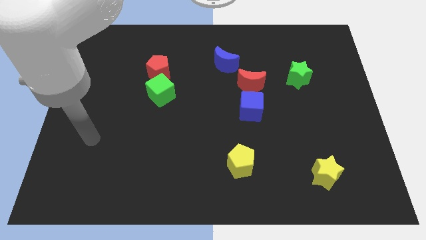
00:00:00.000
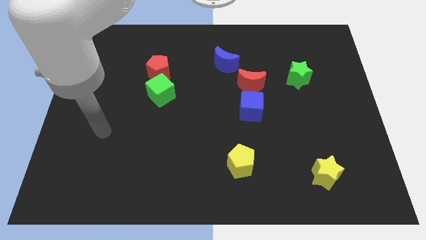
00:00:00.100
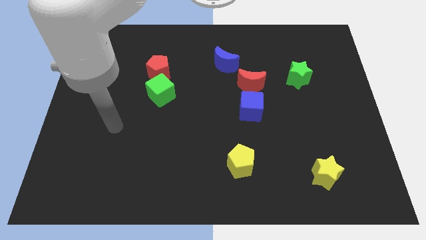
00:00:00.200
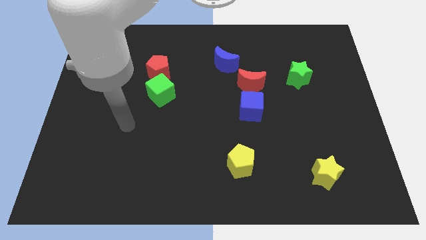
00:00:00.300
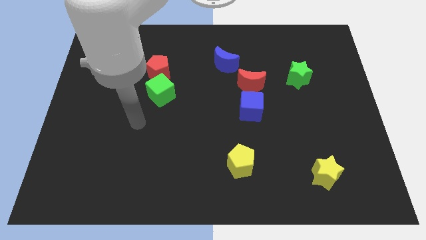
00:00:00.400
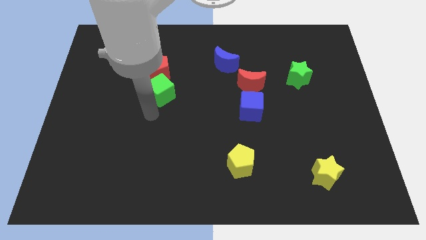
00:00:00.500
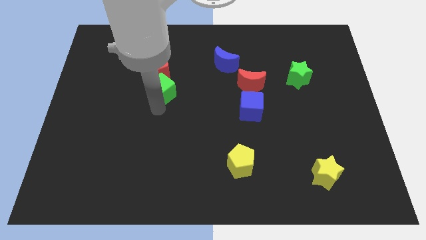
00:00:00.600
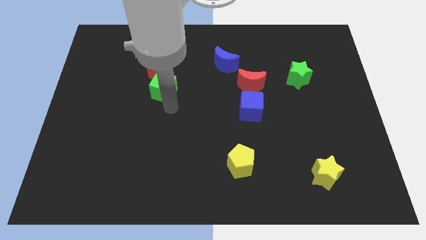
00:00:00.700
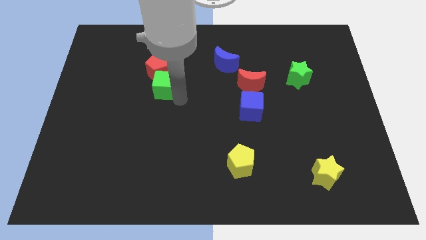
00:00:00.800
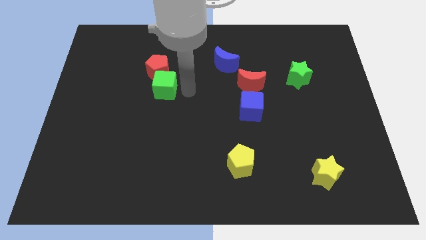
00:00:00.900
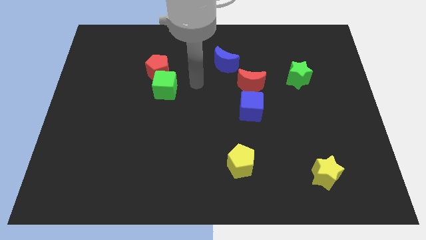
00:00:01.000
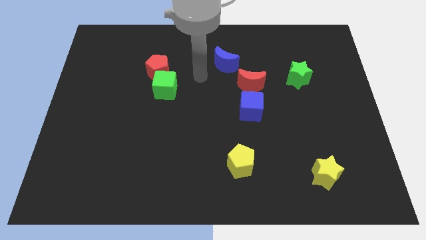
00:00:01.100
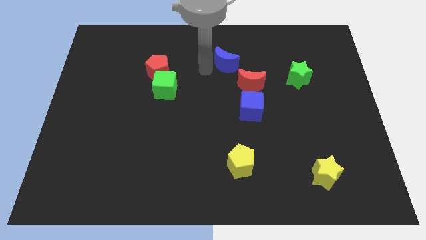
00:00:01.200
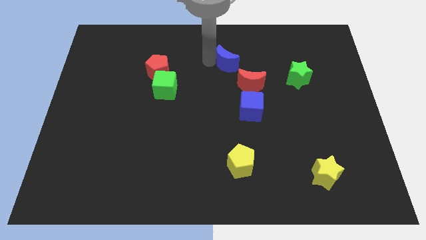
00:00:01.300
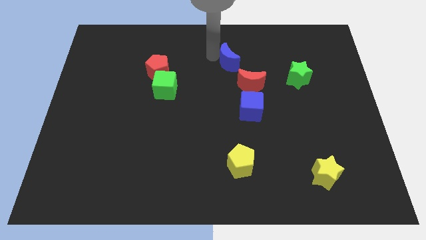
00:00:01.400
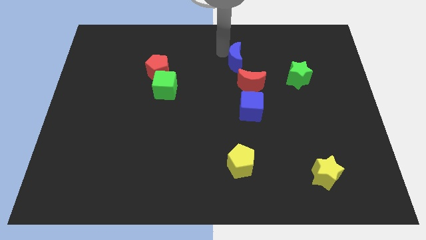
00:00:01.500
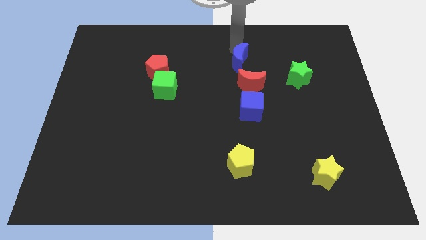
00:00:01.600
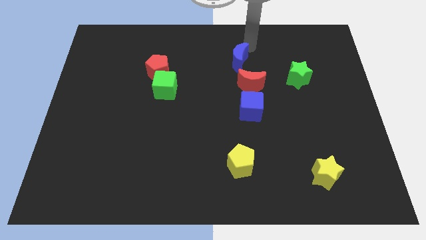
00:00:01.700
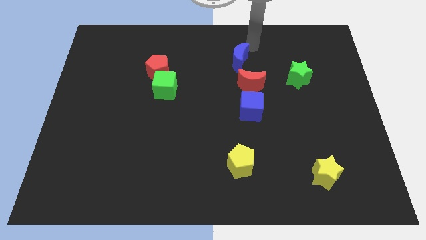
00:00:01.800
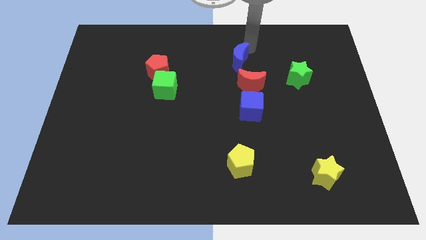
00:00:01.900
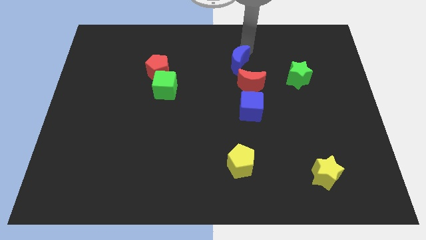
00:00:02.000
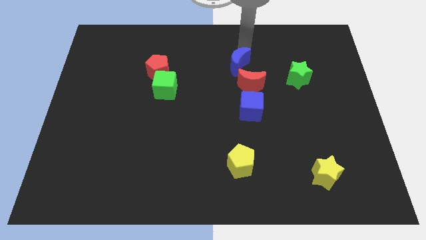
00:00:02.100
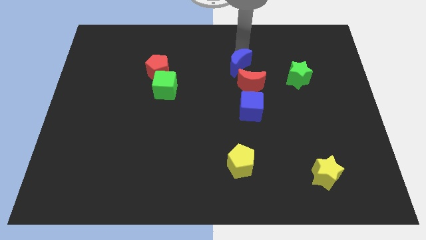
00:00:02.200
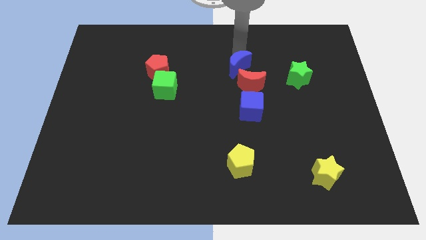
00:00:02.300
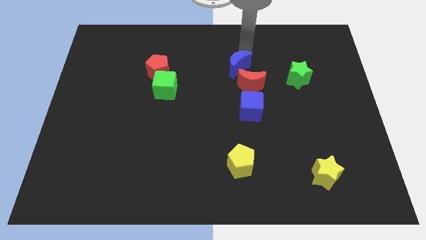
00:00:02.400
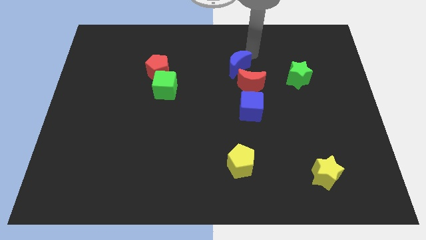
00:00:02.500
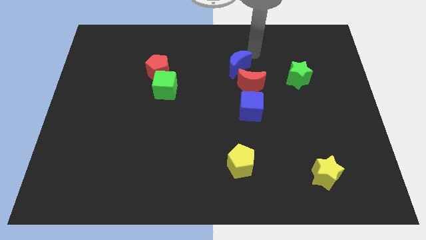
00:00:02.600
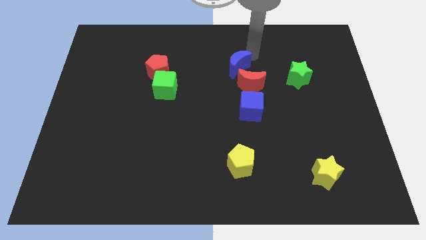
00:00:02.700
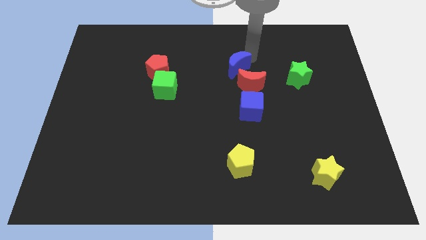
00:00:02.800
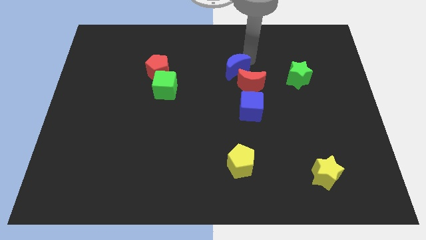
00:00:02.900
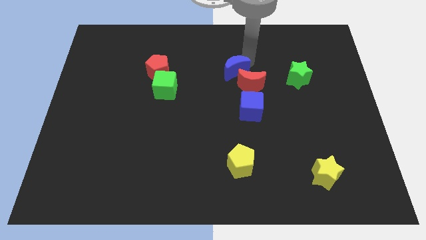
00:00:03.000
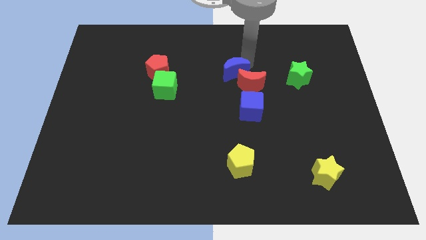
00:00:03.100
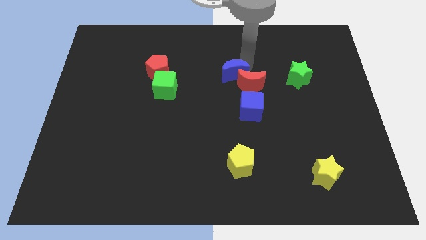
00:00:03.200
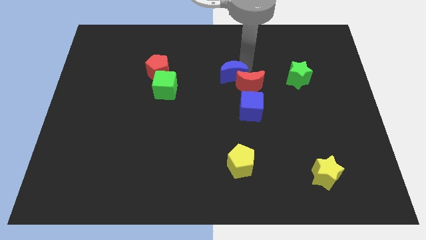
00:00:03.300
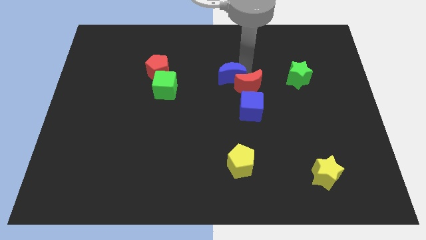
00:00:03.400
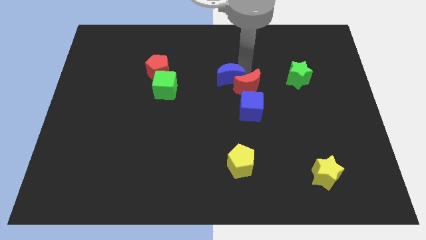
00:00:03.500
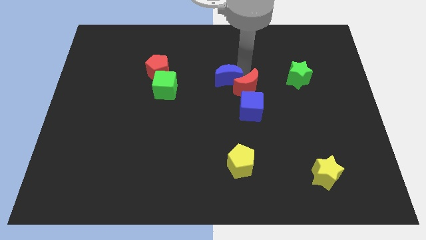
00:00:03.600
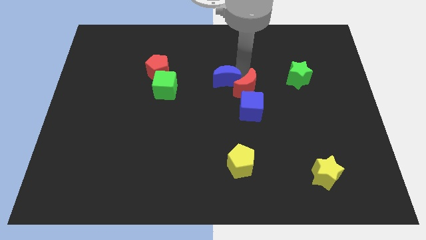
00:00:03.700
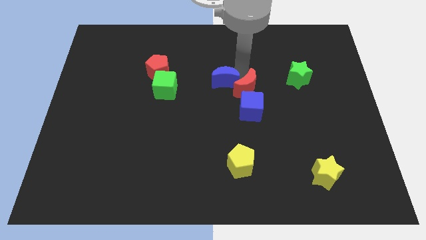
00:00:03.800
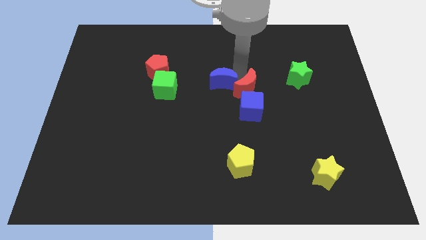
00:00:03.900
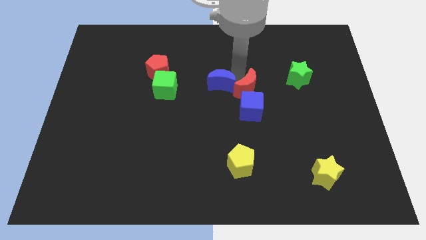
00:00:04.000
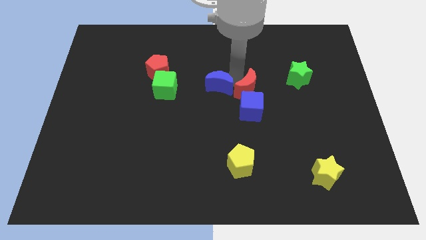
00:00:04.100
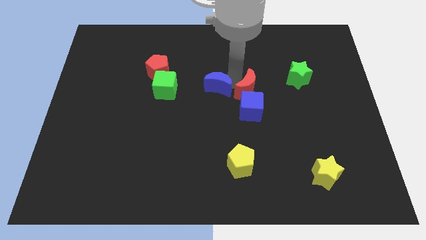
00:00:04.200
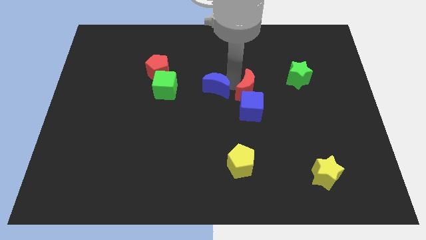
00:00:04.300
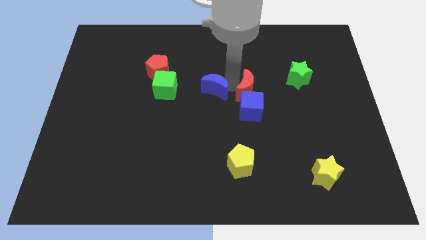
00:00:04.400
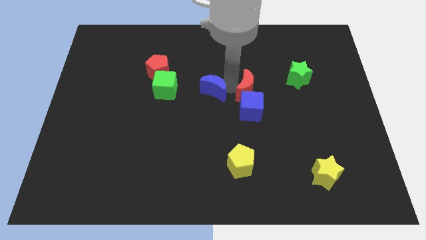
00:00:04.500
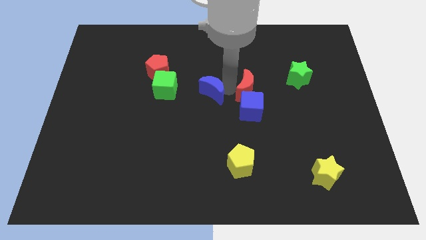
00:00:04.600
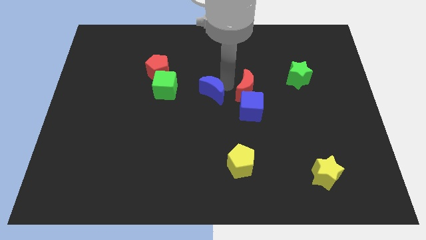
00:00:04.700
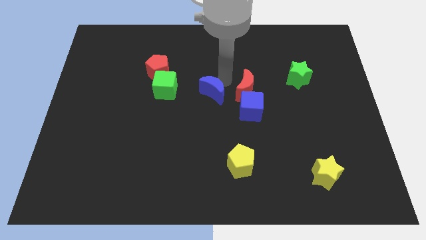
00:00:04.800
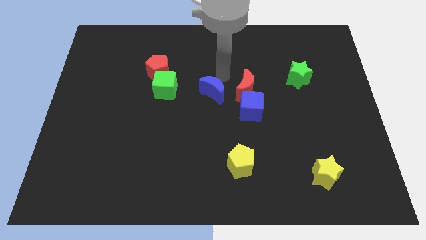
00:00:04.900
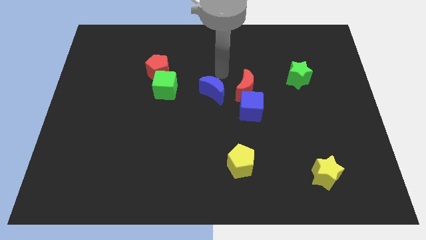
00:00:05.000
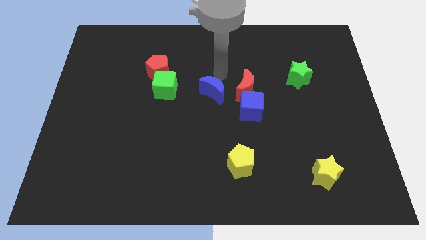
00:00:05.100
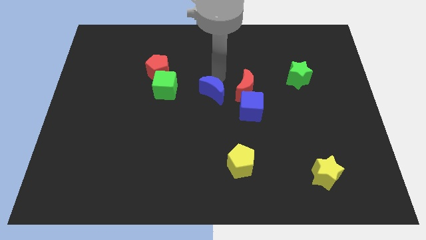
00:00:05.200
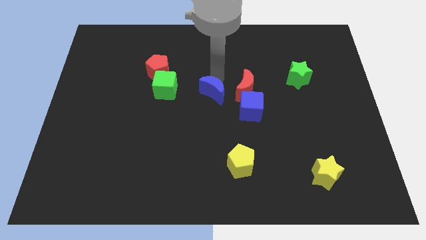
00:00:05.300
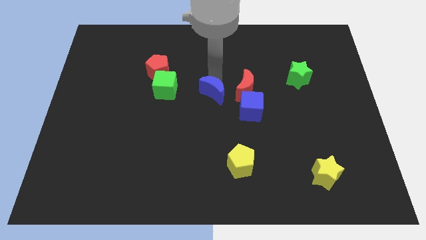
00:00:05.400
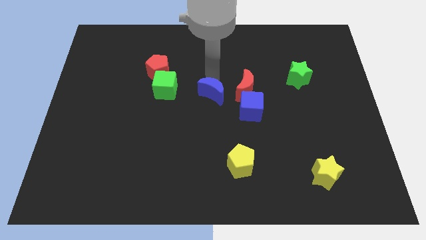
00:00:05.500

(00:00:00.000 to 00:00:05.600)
slide the blue moon left of the blue cube

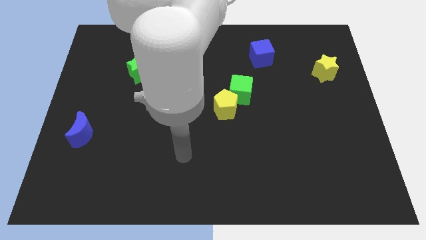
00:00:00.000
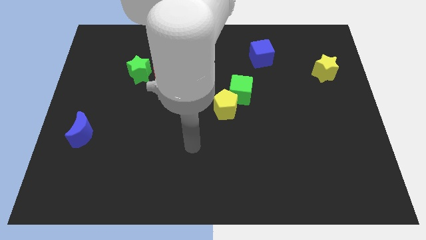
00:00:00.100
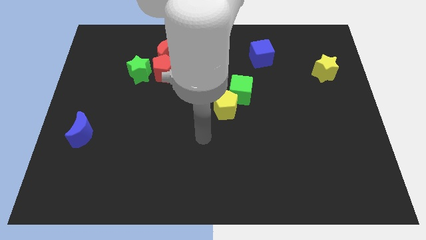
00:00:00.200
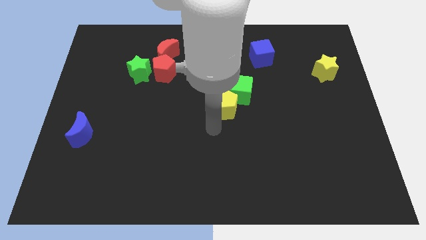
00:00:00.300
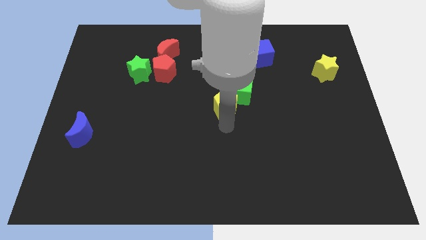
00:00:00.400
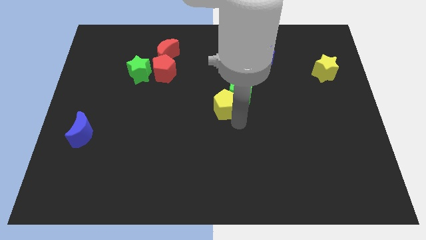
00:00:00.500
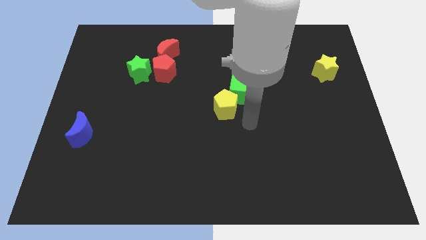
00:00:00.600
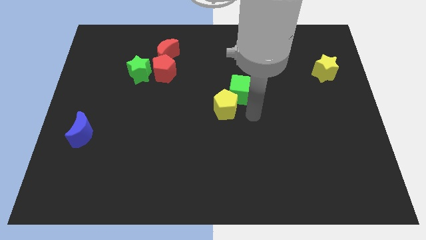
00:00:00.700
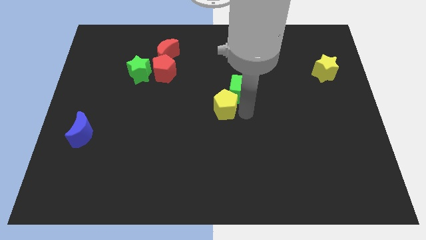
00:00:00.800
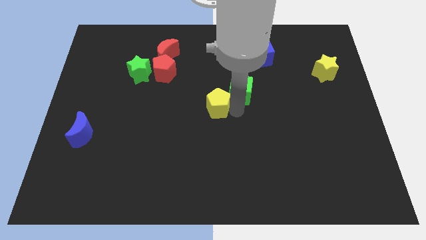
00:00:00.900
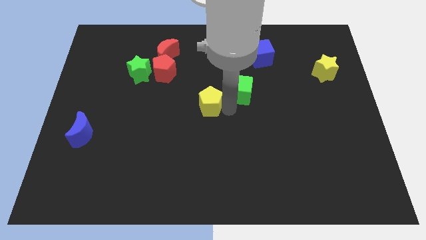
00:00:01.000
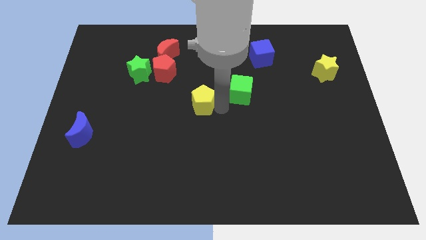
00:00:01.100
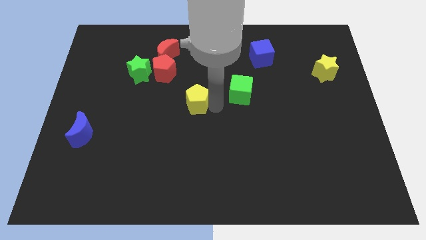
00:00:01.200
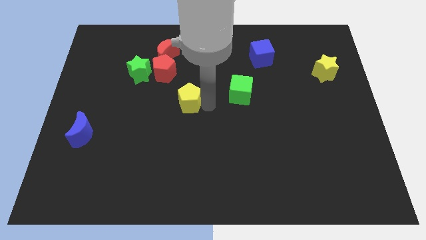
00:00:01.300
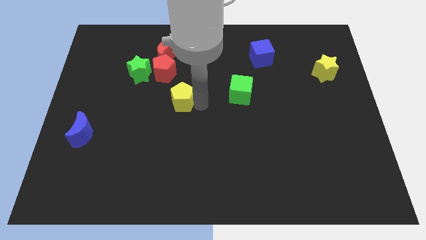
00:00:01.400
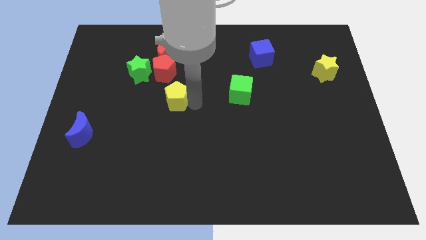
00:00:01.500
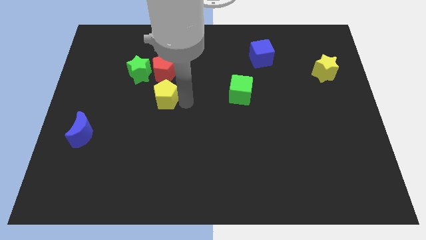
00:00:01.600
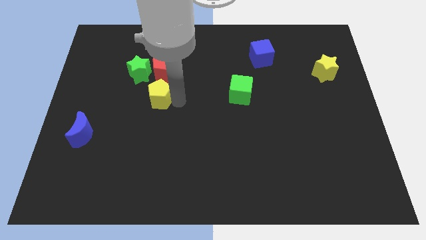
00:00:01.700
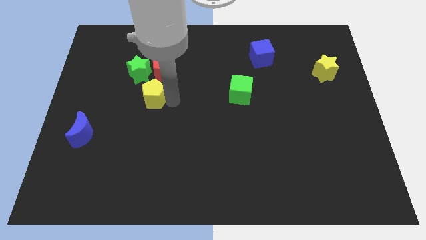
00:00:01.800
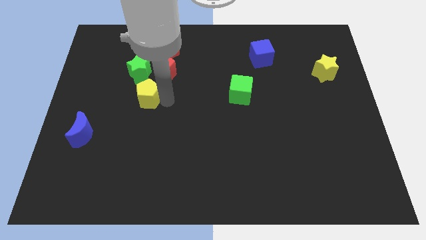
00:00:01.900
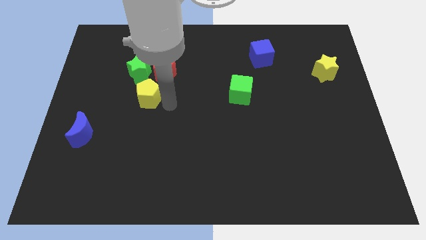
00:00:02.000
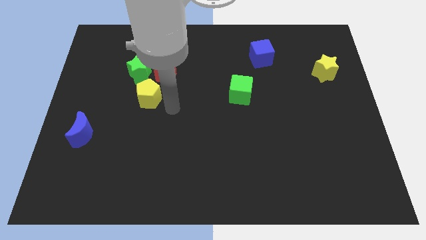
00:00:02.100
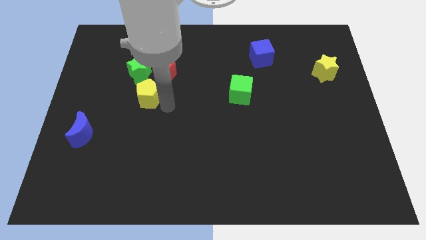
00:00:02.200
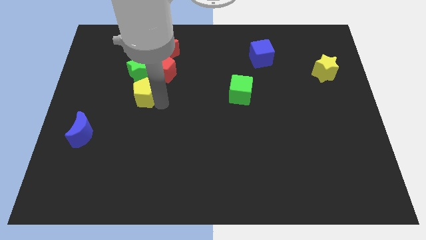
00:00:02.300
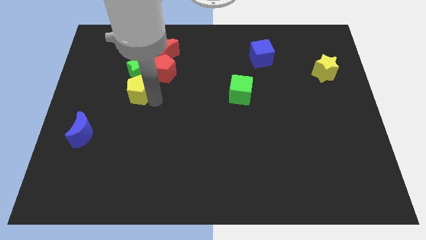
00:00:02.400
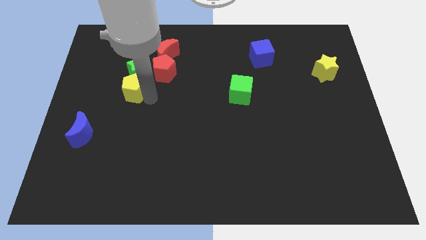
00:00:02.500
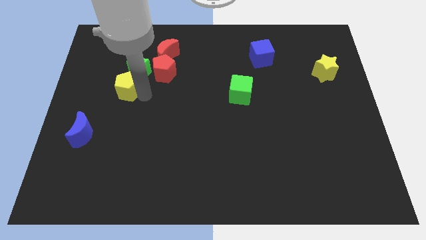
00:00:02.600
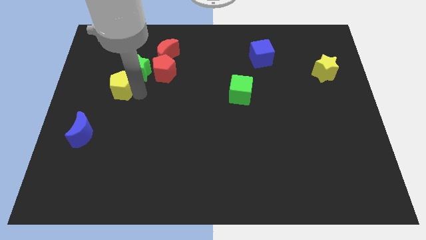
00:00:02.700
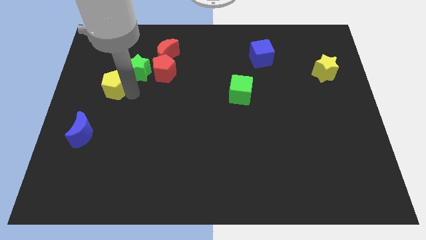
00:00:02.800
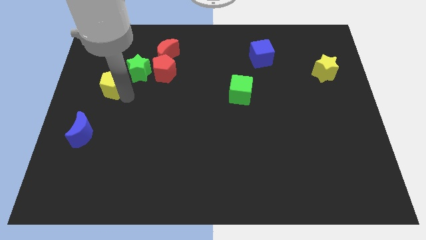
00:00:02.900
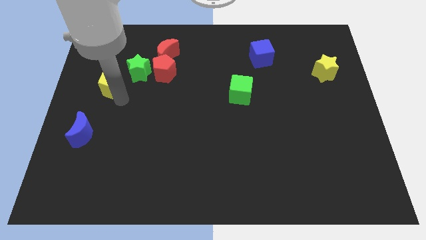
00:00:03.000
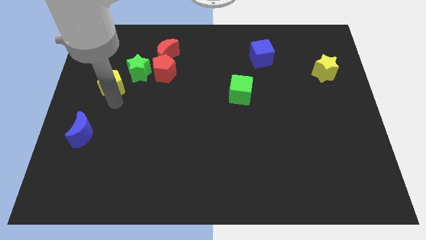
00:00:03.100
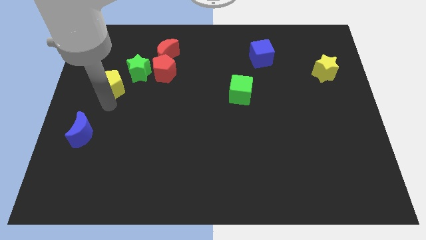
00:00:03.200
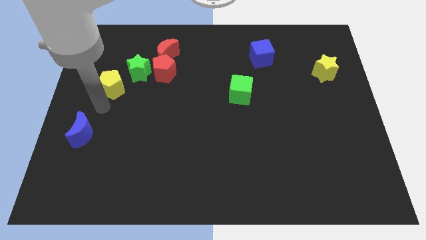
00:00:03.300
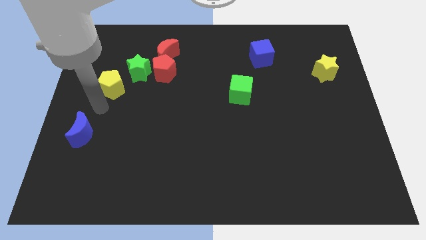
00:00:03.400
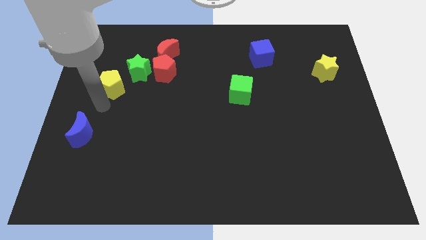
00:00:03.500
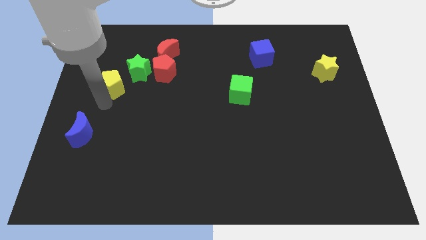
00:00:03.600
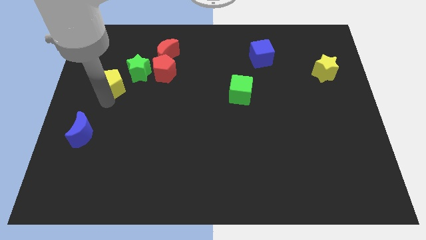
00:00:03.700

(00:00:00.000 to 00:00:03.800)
push the yellow pentagon left of the red pentagon
